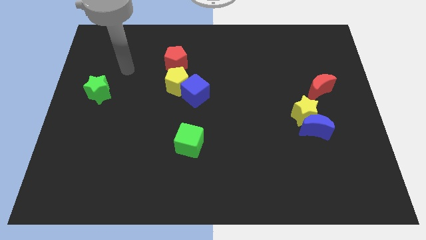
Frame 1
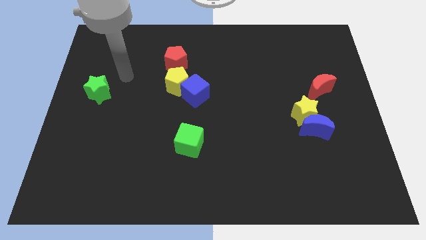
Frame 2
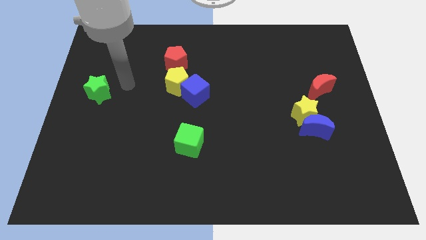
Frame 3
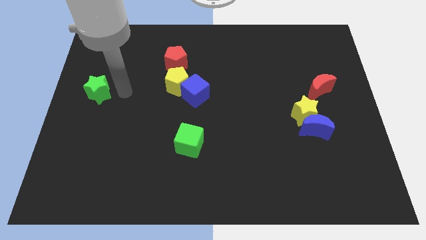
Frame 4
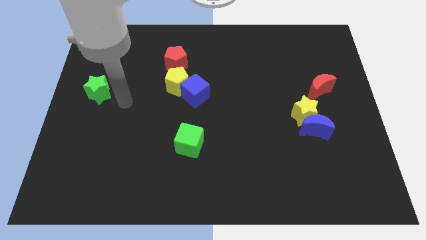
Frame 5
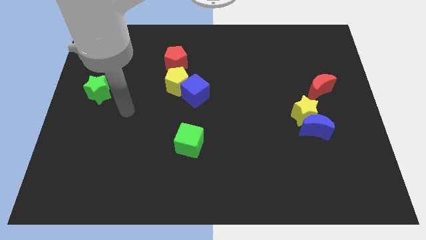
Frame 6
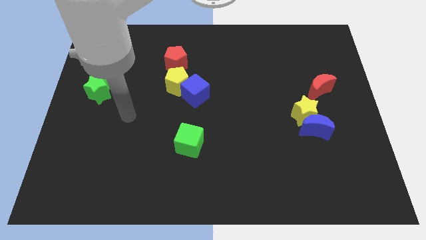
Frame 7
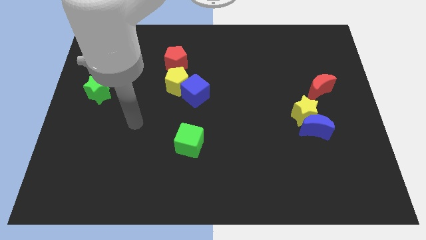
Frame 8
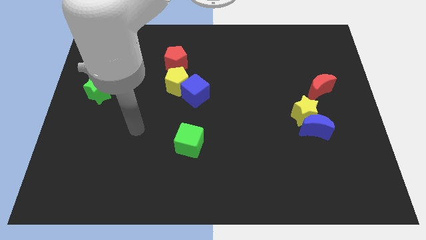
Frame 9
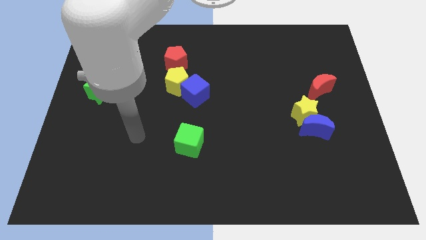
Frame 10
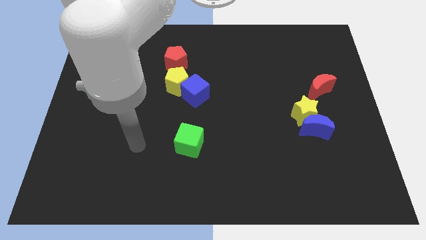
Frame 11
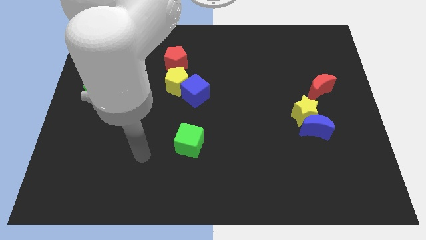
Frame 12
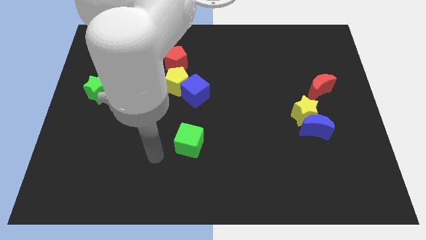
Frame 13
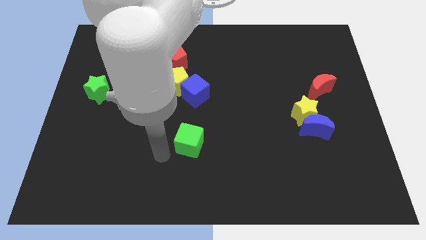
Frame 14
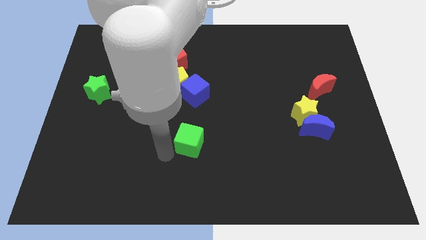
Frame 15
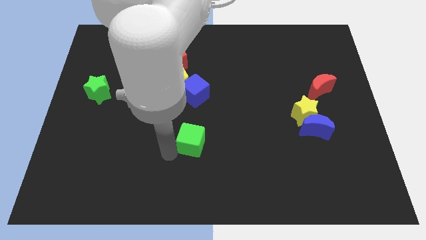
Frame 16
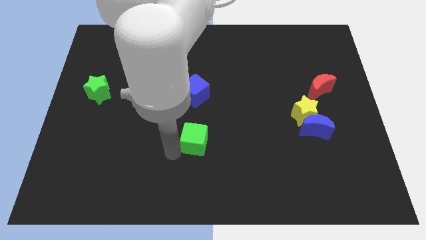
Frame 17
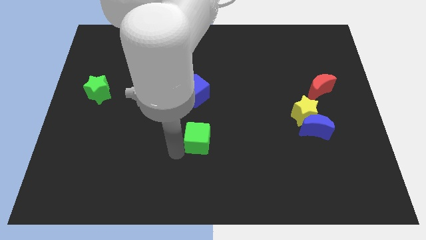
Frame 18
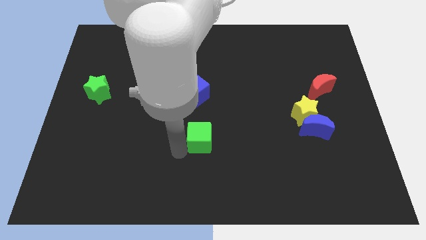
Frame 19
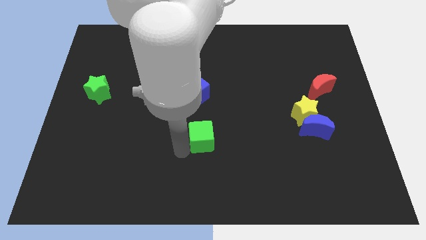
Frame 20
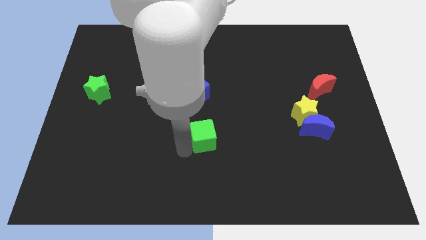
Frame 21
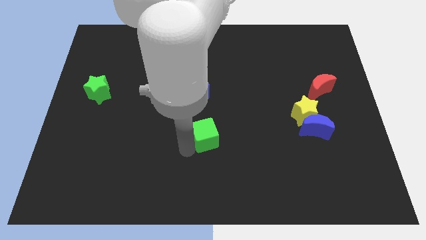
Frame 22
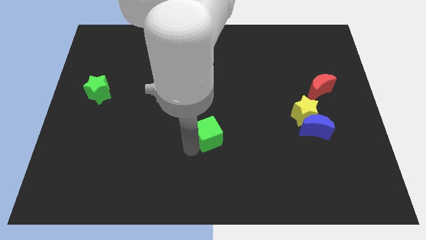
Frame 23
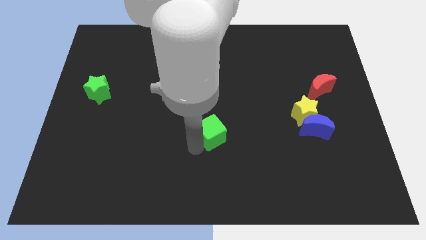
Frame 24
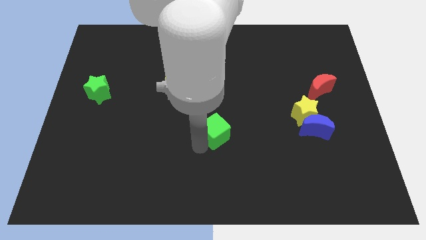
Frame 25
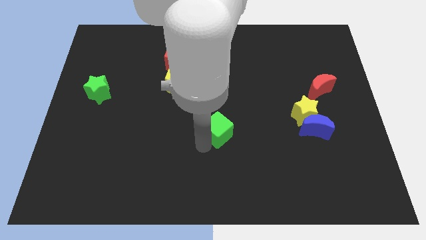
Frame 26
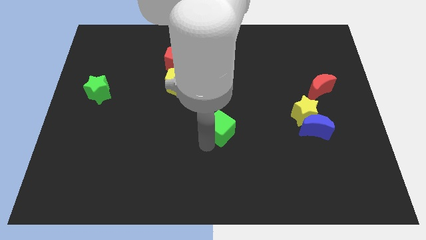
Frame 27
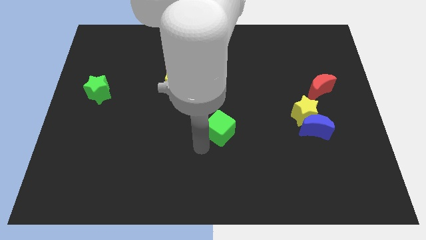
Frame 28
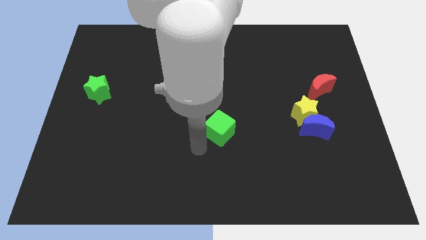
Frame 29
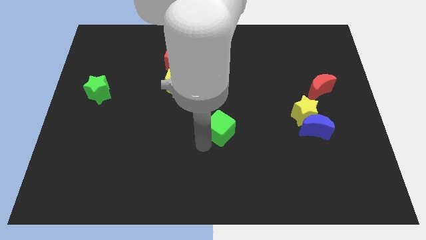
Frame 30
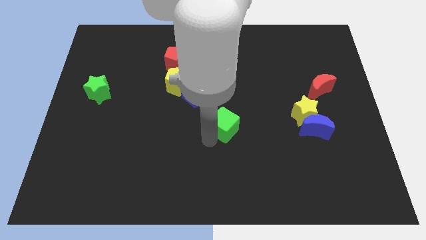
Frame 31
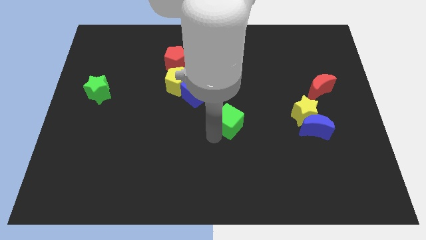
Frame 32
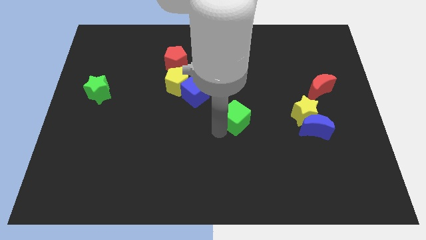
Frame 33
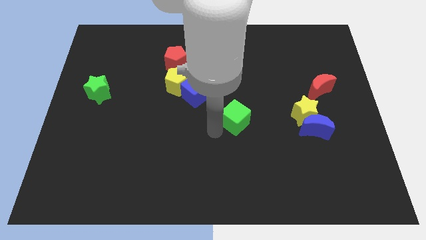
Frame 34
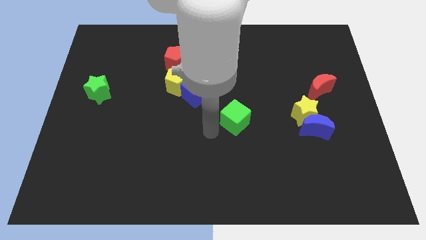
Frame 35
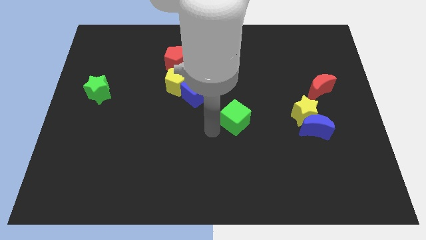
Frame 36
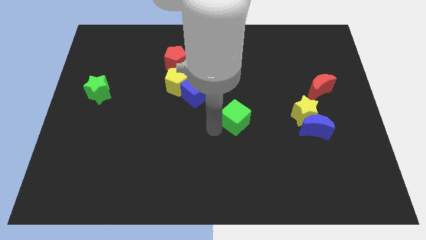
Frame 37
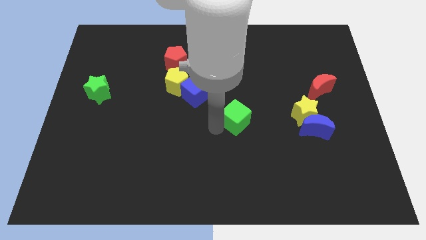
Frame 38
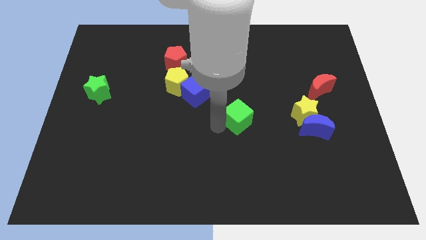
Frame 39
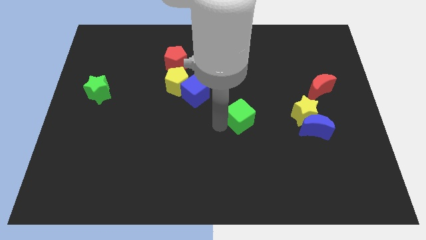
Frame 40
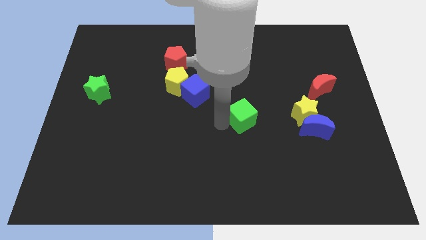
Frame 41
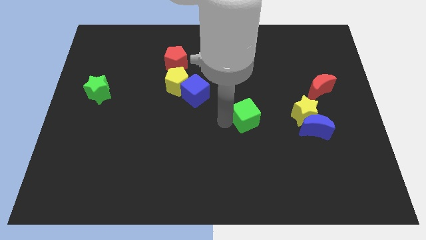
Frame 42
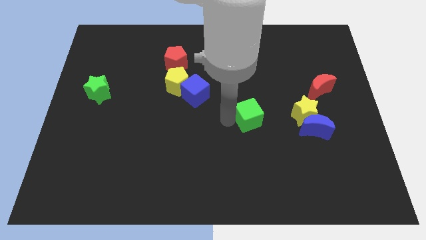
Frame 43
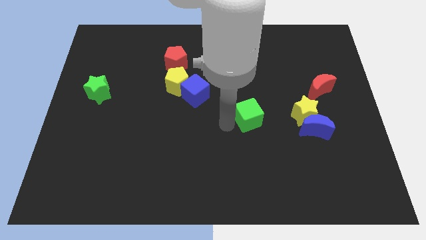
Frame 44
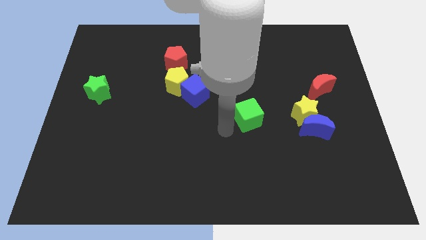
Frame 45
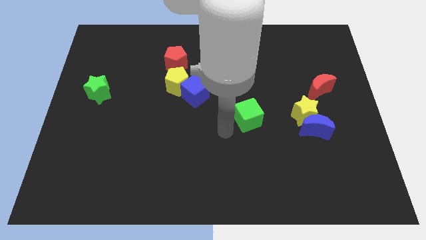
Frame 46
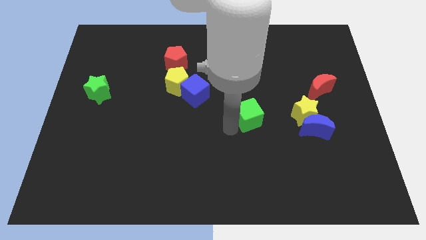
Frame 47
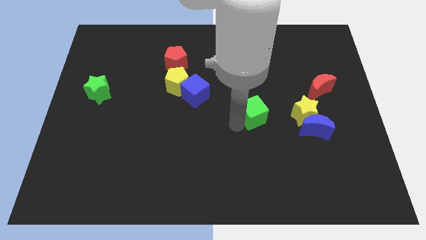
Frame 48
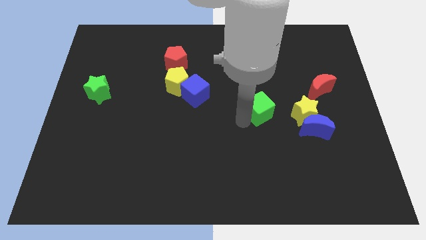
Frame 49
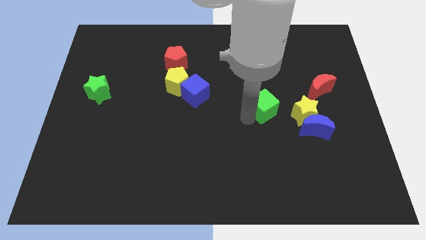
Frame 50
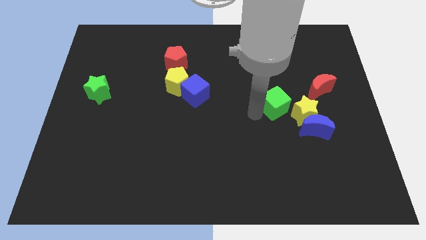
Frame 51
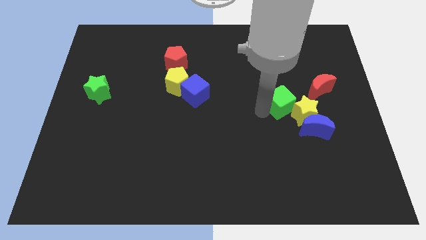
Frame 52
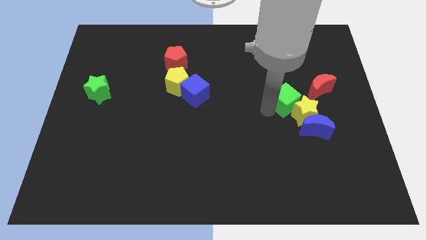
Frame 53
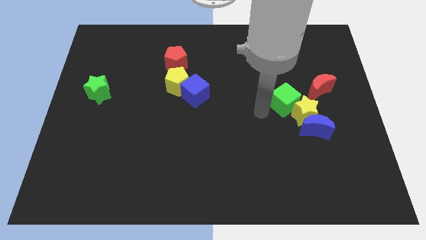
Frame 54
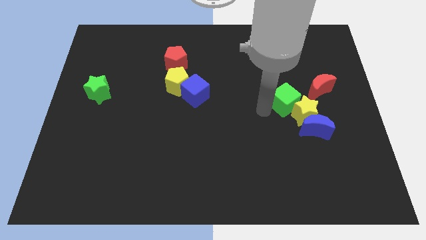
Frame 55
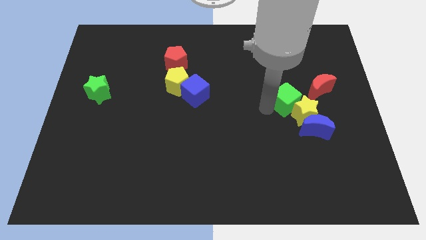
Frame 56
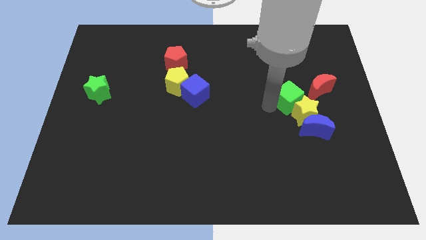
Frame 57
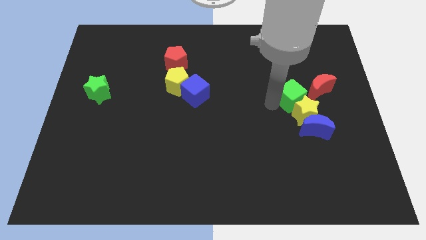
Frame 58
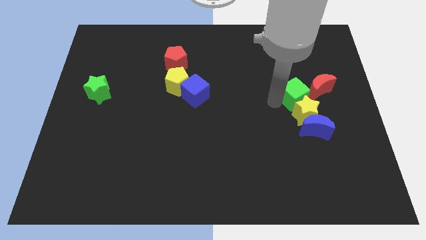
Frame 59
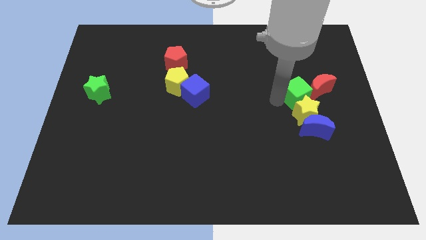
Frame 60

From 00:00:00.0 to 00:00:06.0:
put the green cube close to the red moon
